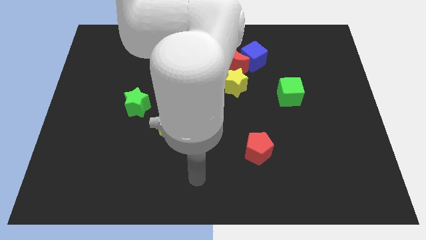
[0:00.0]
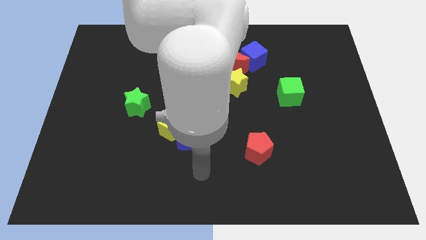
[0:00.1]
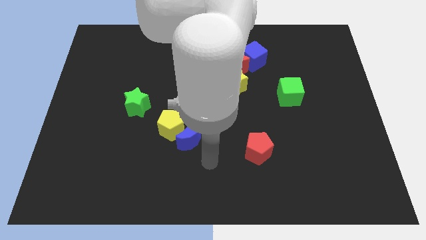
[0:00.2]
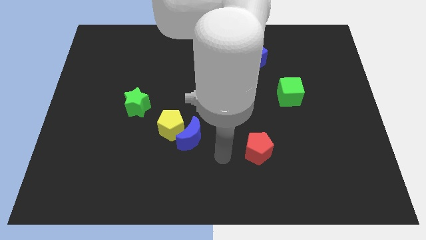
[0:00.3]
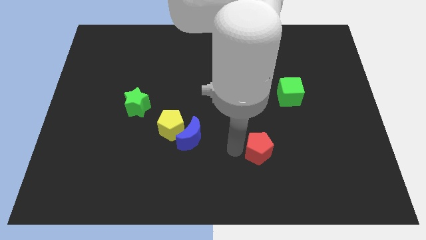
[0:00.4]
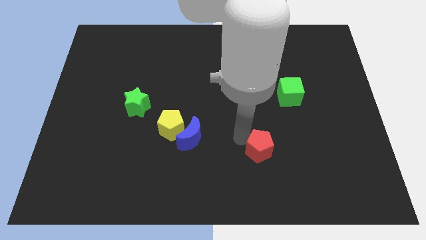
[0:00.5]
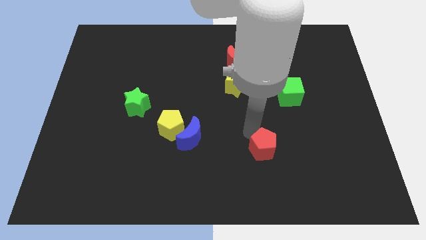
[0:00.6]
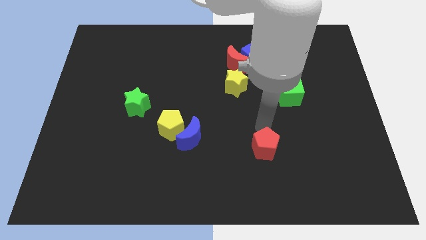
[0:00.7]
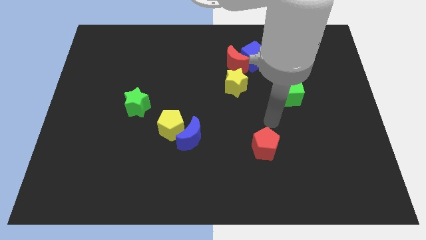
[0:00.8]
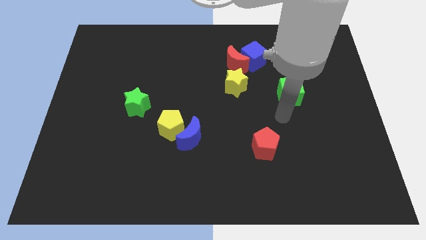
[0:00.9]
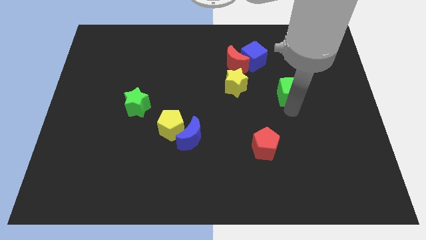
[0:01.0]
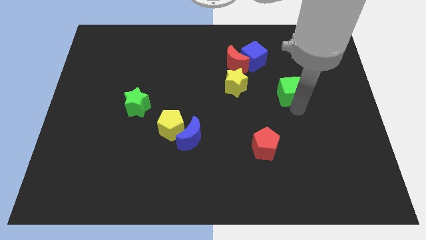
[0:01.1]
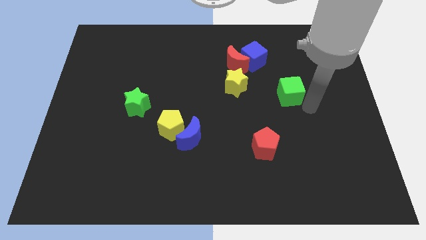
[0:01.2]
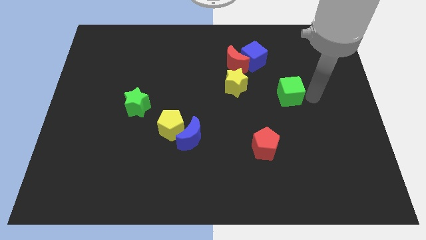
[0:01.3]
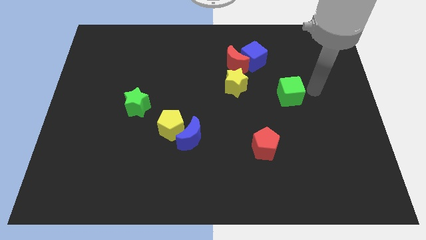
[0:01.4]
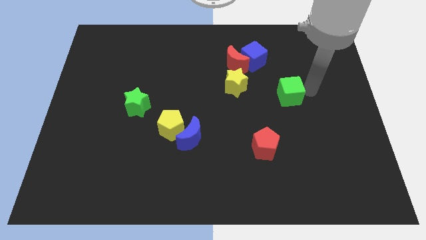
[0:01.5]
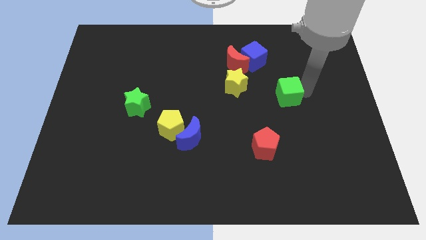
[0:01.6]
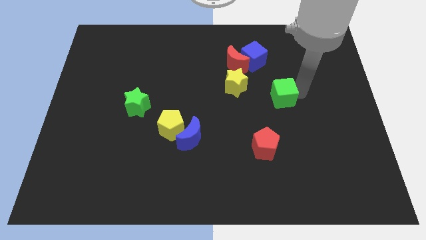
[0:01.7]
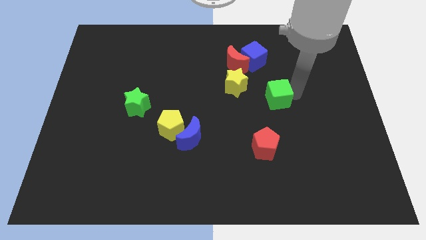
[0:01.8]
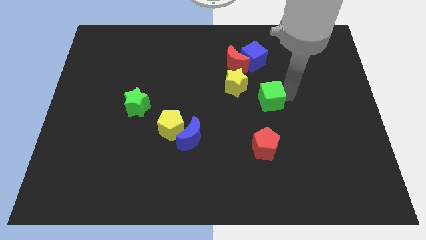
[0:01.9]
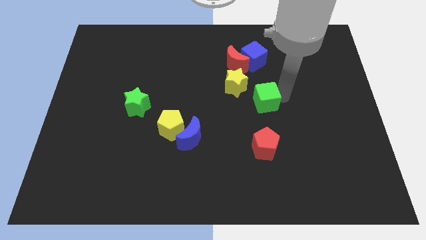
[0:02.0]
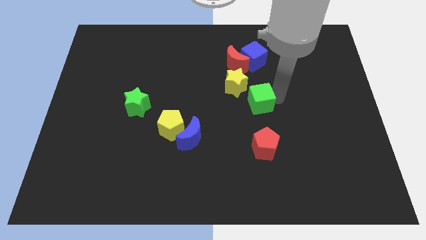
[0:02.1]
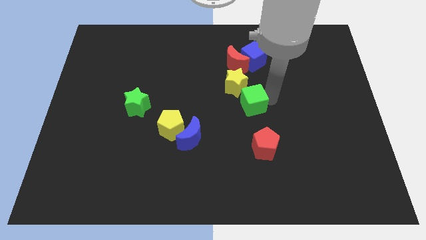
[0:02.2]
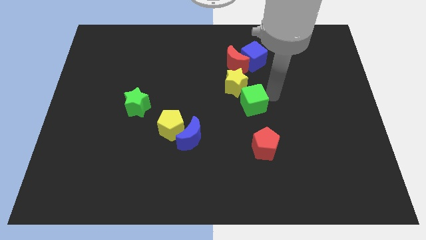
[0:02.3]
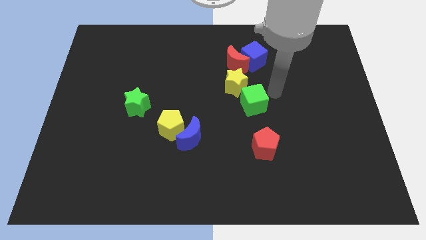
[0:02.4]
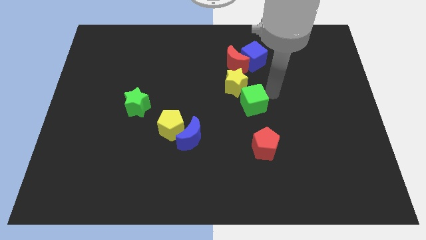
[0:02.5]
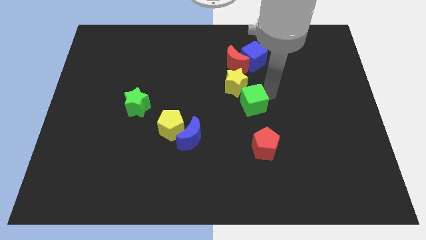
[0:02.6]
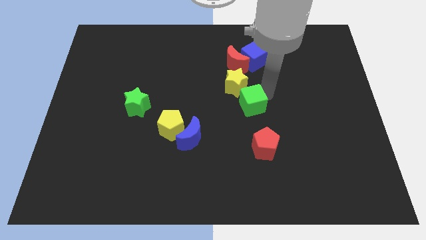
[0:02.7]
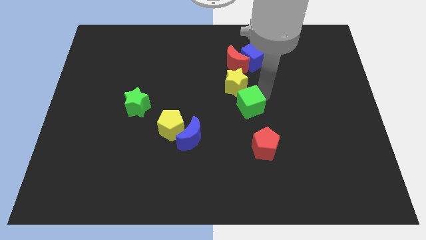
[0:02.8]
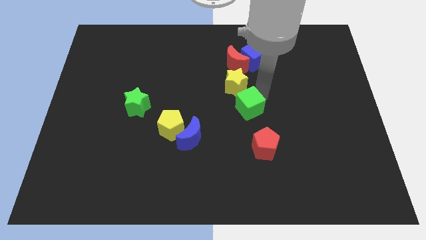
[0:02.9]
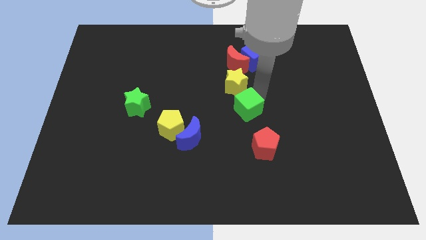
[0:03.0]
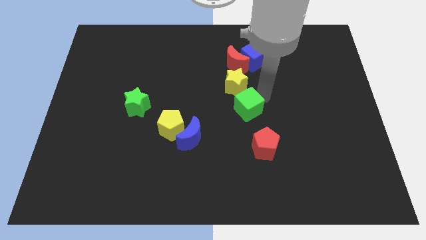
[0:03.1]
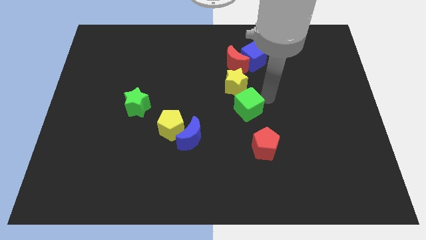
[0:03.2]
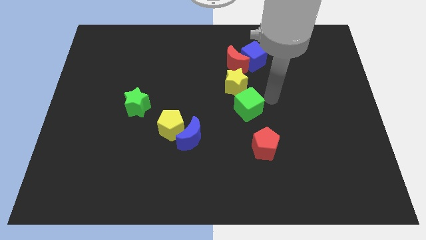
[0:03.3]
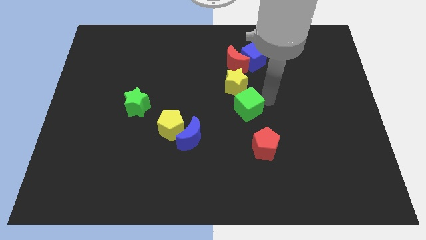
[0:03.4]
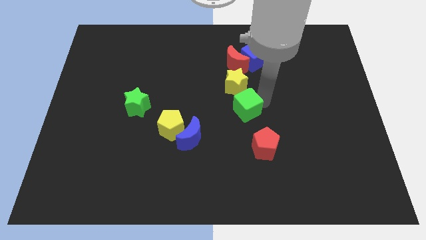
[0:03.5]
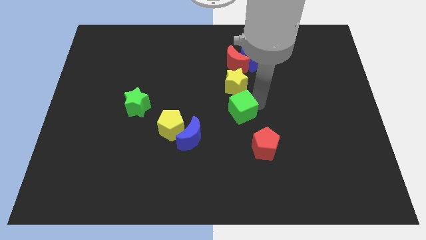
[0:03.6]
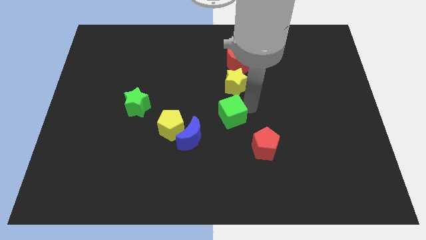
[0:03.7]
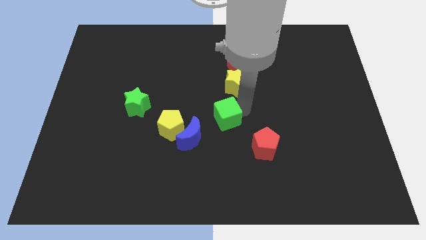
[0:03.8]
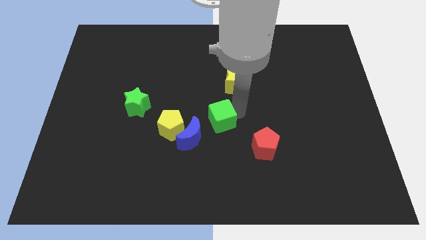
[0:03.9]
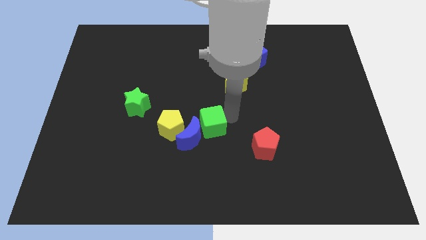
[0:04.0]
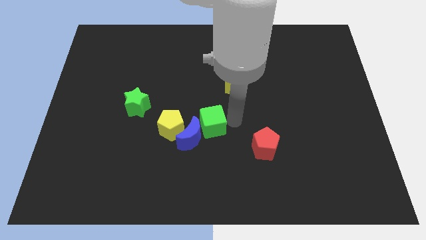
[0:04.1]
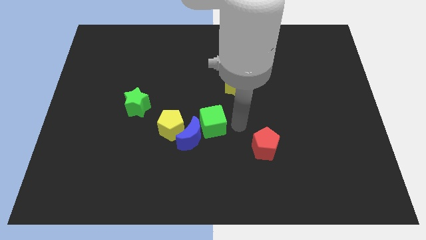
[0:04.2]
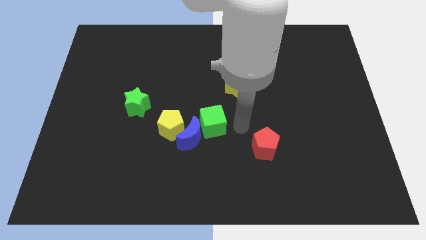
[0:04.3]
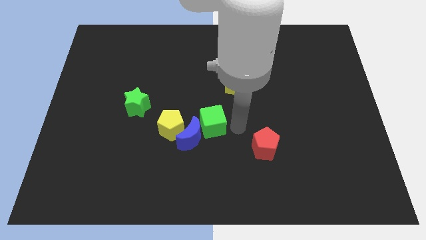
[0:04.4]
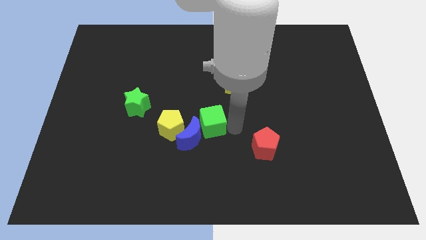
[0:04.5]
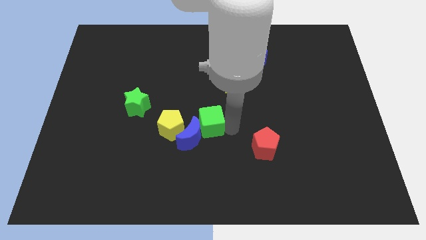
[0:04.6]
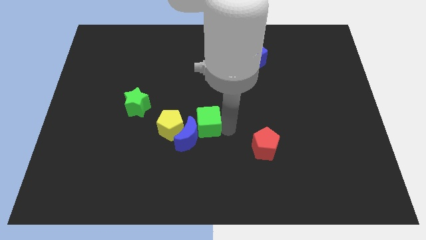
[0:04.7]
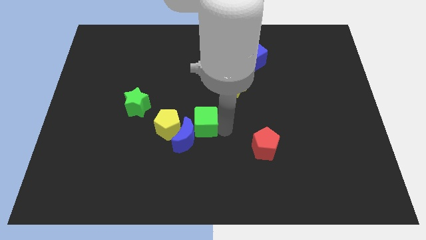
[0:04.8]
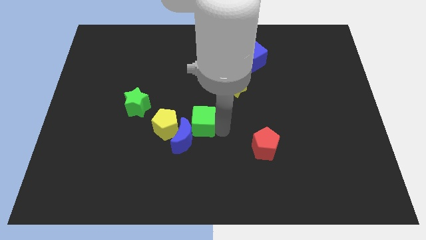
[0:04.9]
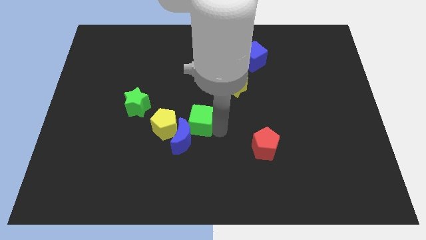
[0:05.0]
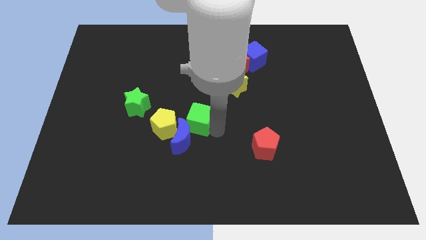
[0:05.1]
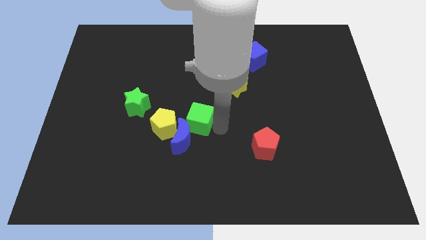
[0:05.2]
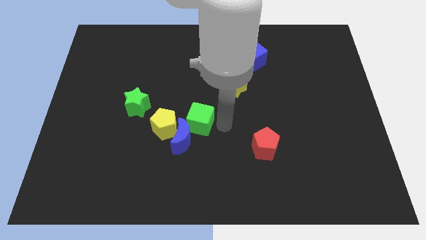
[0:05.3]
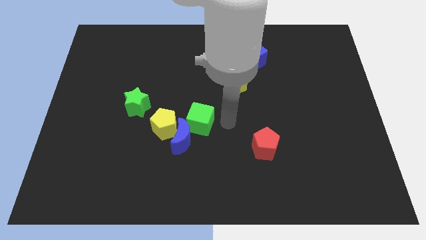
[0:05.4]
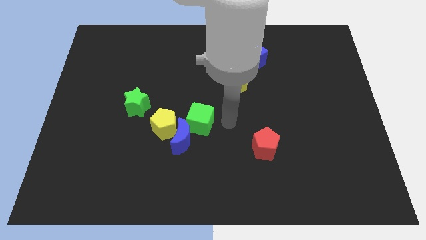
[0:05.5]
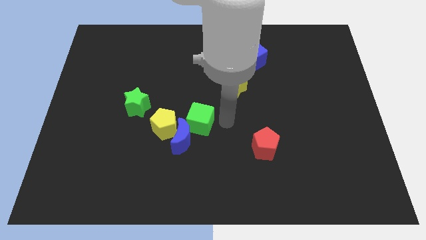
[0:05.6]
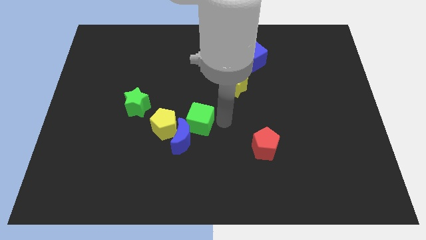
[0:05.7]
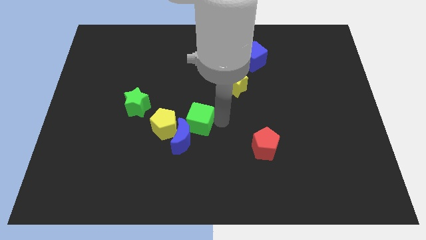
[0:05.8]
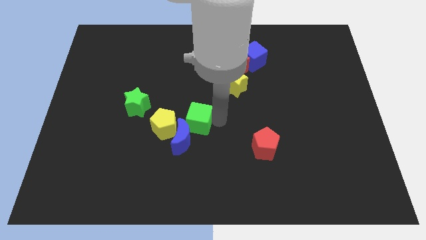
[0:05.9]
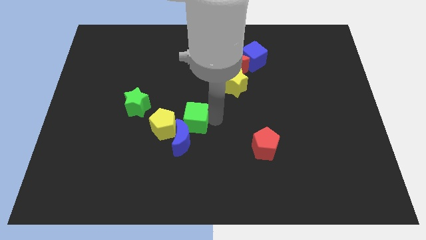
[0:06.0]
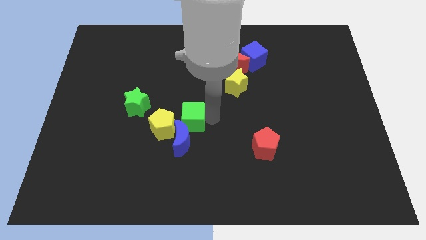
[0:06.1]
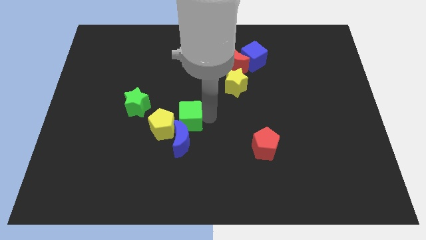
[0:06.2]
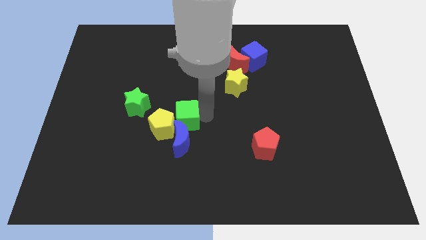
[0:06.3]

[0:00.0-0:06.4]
put the green cube next to the yellow pentagon
